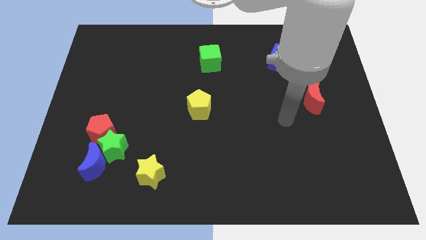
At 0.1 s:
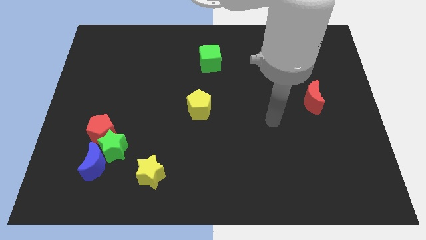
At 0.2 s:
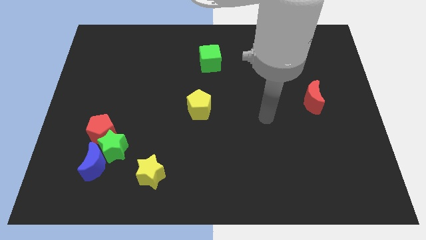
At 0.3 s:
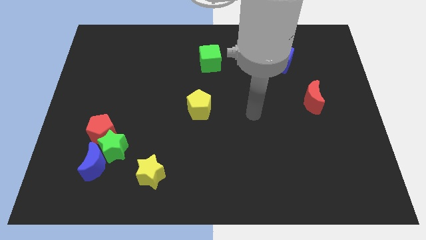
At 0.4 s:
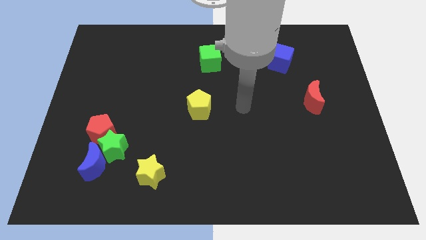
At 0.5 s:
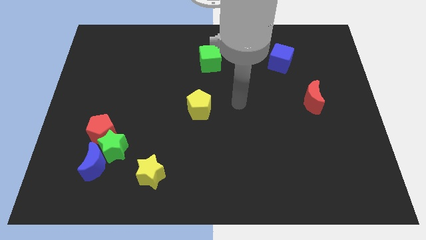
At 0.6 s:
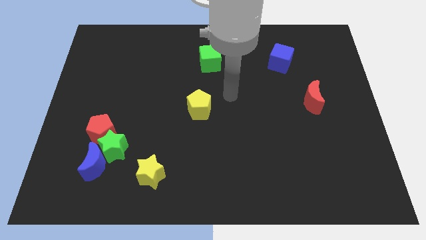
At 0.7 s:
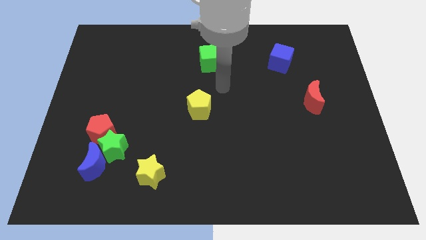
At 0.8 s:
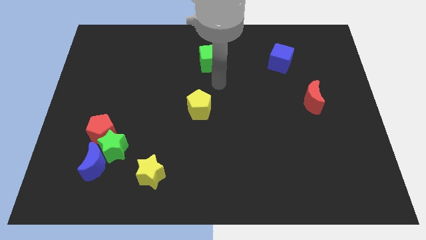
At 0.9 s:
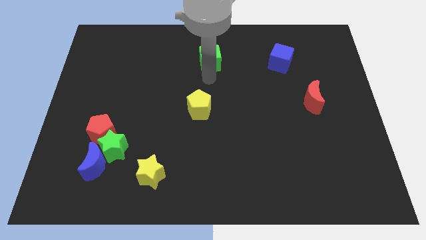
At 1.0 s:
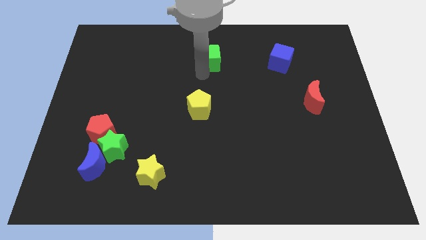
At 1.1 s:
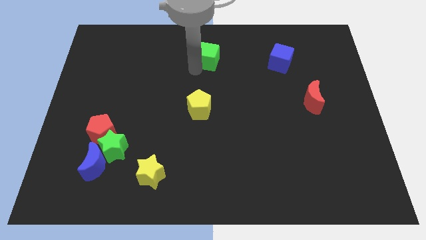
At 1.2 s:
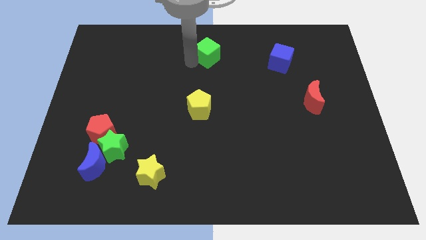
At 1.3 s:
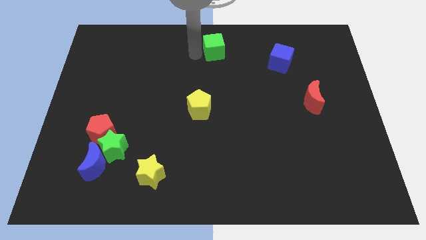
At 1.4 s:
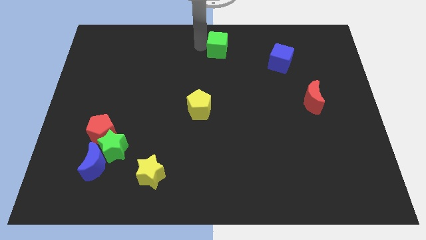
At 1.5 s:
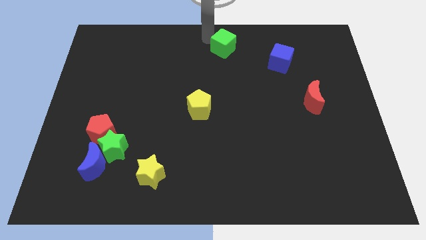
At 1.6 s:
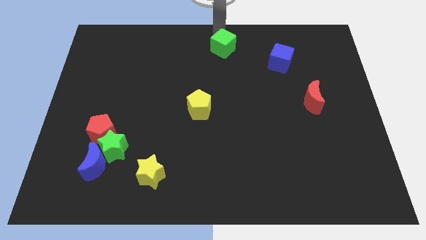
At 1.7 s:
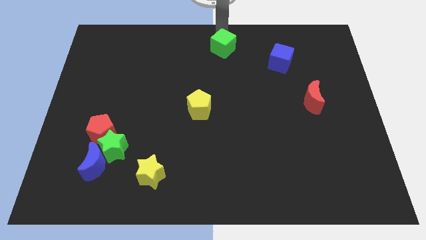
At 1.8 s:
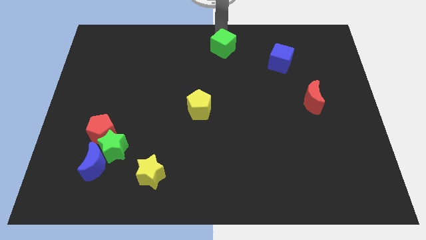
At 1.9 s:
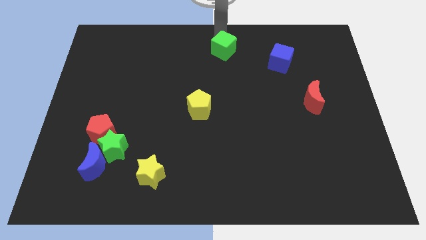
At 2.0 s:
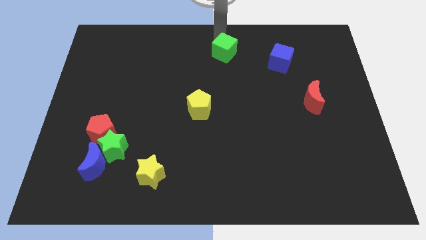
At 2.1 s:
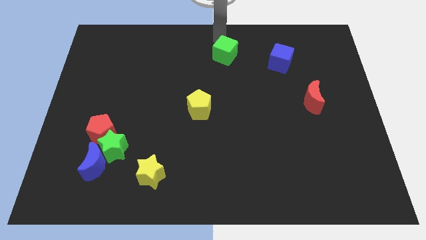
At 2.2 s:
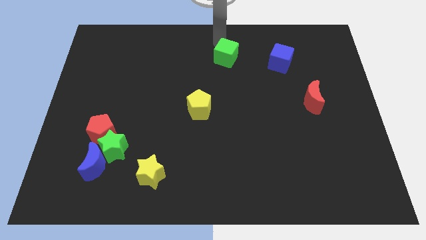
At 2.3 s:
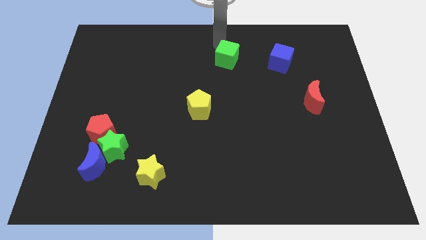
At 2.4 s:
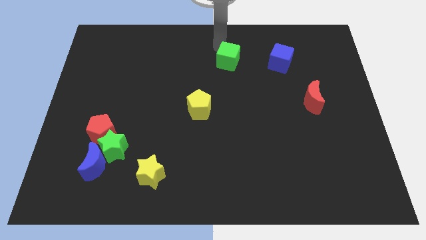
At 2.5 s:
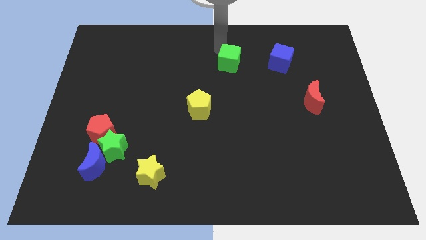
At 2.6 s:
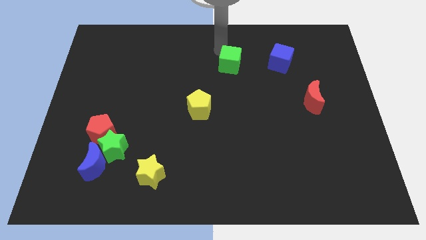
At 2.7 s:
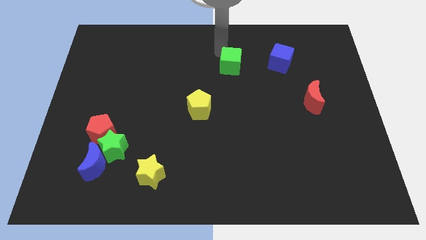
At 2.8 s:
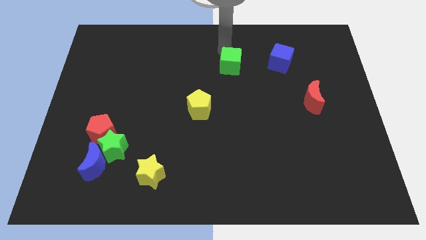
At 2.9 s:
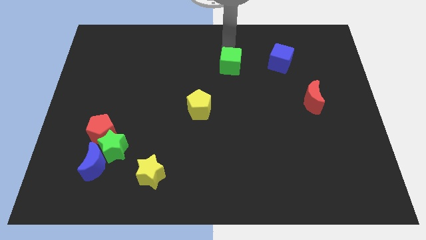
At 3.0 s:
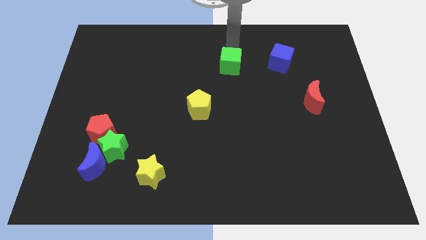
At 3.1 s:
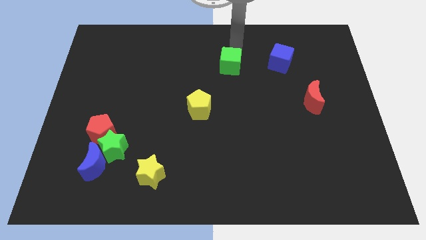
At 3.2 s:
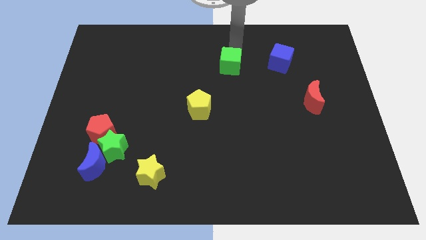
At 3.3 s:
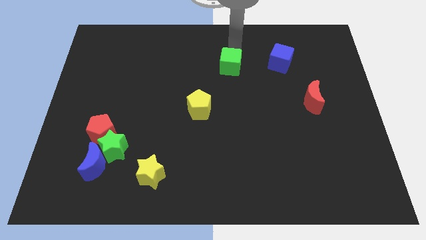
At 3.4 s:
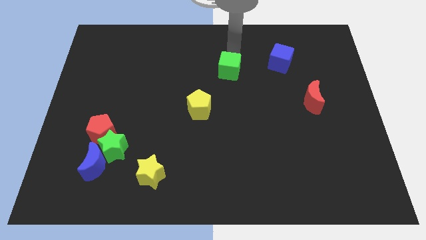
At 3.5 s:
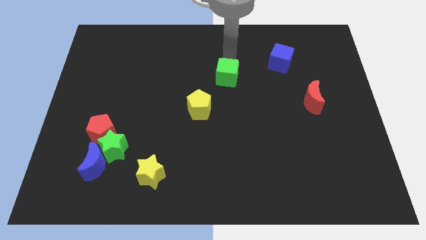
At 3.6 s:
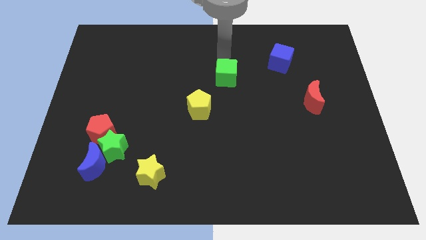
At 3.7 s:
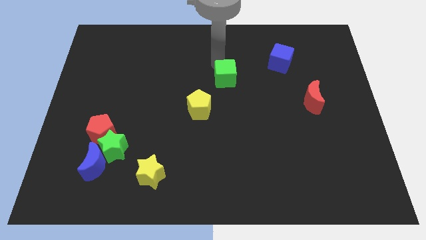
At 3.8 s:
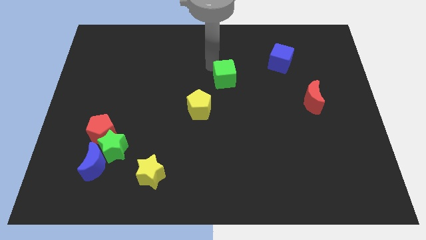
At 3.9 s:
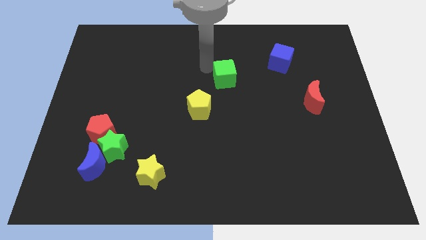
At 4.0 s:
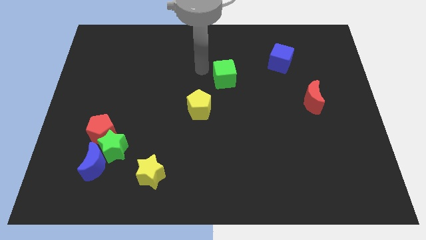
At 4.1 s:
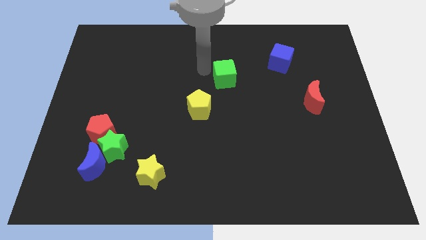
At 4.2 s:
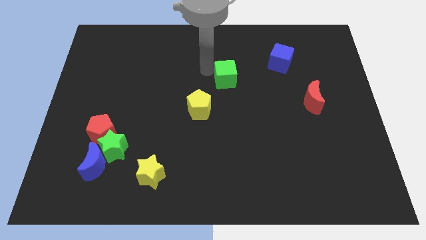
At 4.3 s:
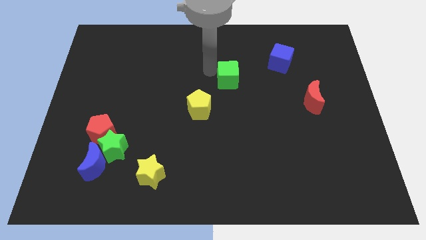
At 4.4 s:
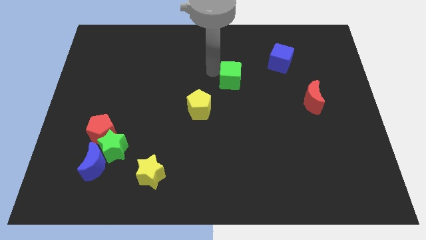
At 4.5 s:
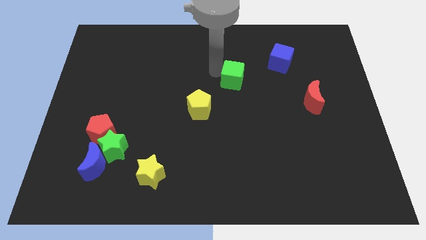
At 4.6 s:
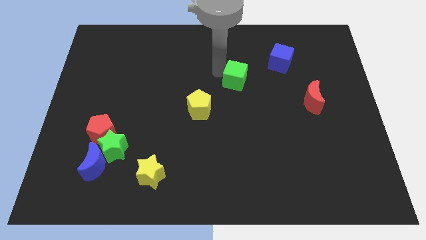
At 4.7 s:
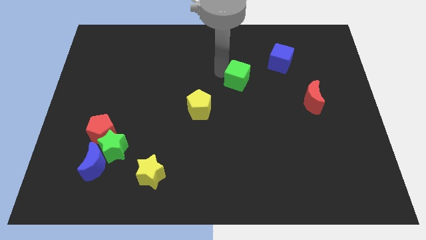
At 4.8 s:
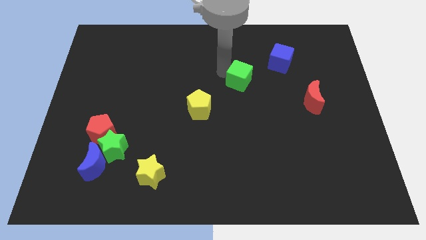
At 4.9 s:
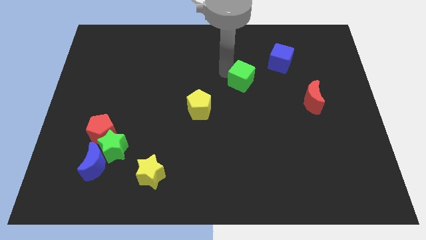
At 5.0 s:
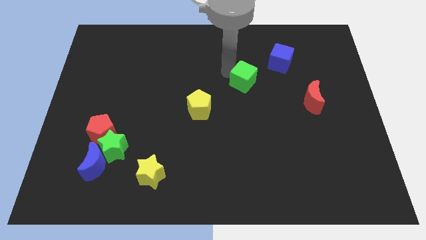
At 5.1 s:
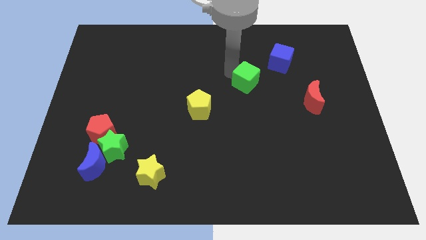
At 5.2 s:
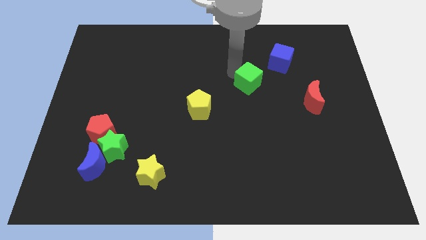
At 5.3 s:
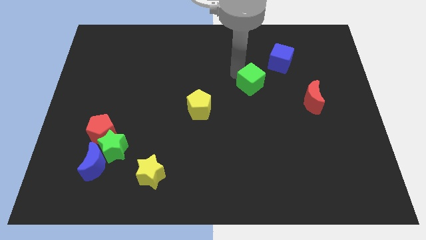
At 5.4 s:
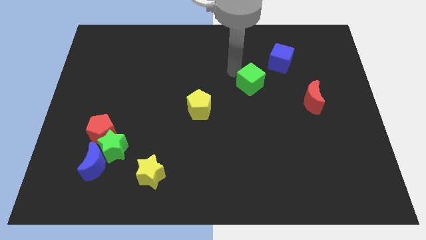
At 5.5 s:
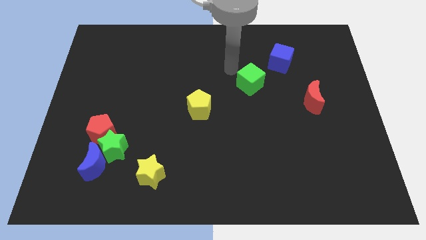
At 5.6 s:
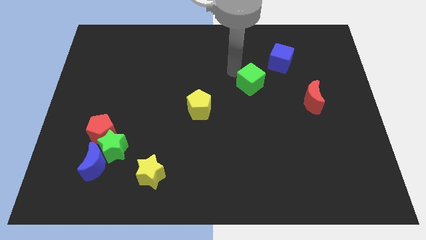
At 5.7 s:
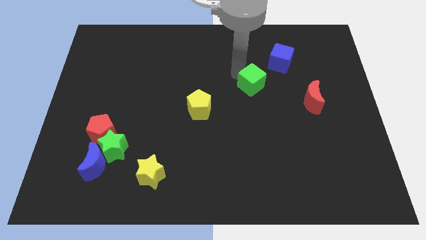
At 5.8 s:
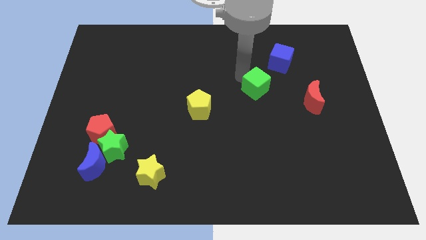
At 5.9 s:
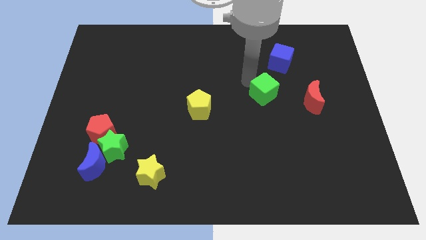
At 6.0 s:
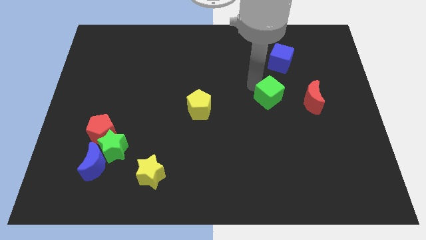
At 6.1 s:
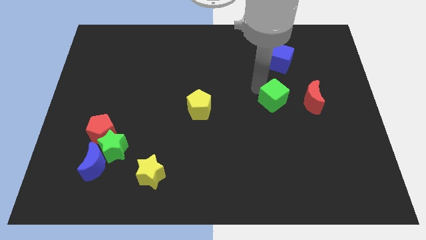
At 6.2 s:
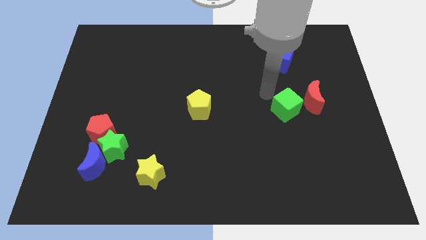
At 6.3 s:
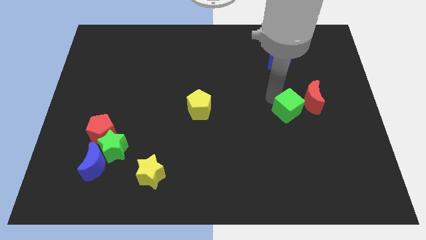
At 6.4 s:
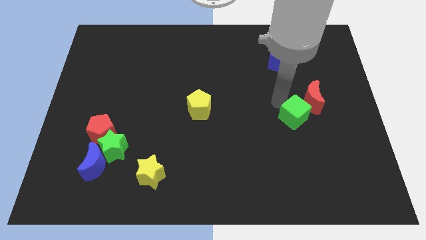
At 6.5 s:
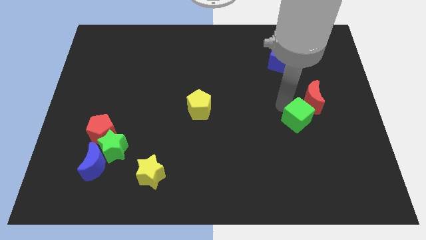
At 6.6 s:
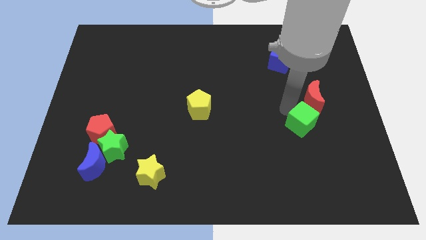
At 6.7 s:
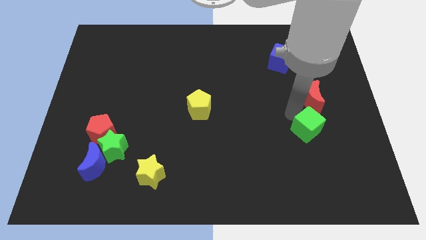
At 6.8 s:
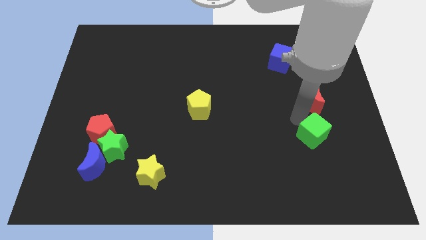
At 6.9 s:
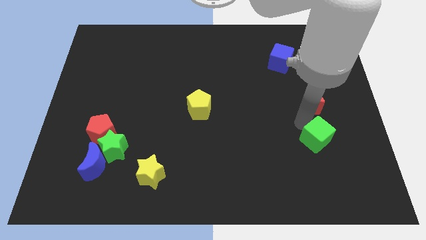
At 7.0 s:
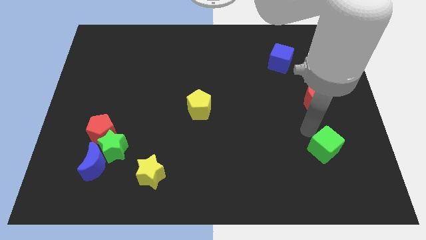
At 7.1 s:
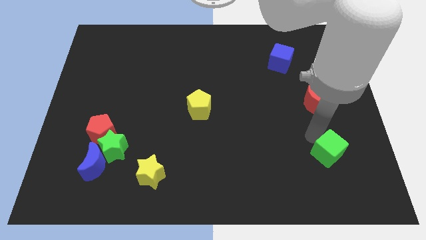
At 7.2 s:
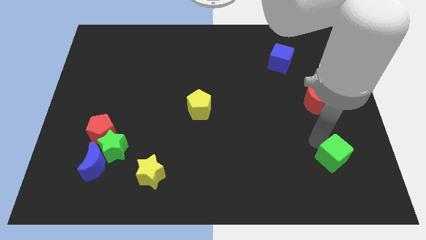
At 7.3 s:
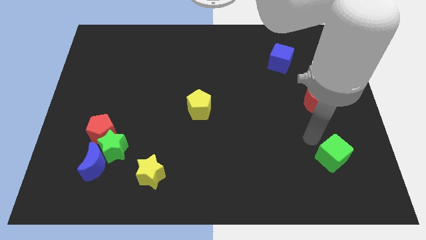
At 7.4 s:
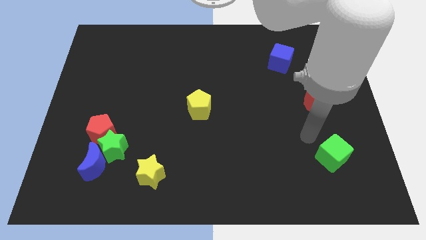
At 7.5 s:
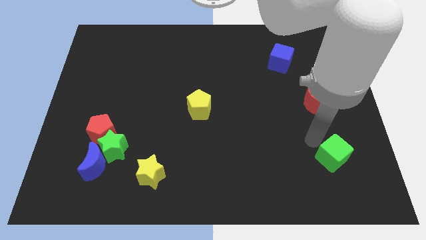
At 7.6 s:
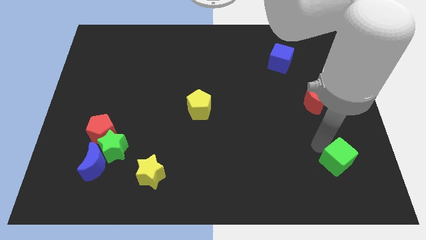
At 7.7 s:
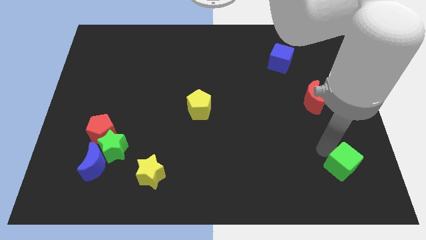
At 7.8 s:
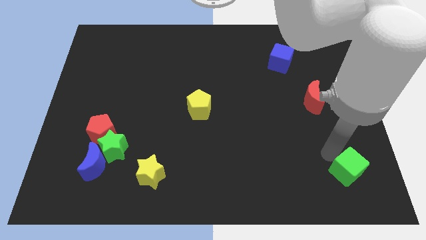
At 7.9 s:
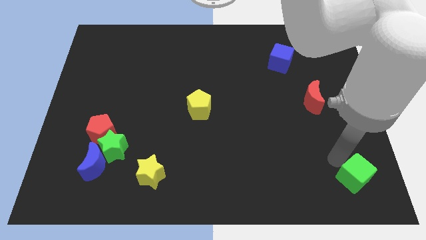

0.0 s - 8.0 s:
slide the green cube to the lower right corner
